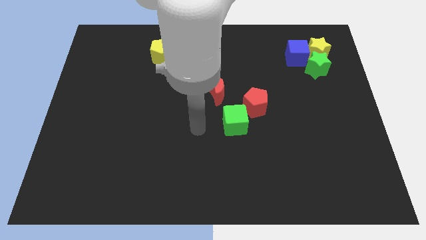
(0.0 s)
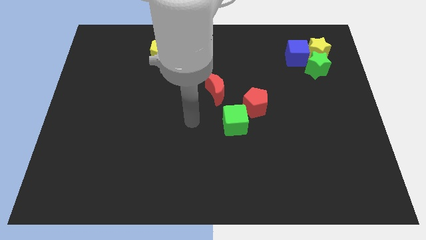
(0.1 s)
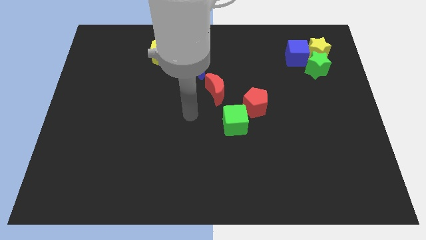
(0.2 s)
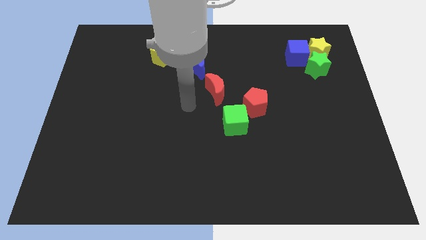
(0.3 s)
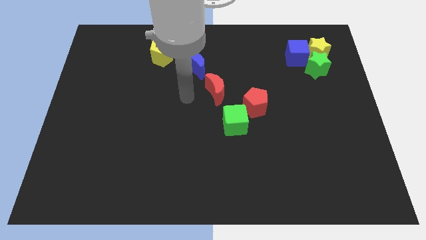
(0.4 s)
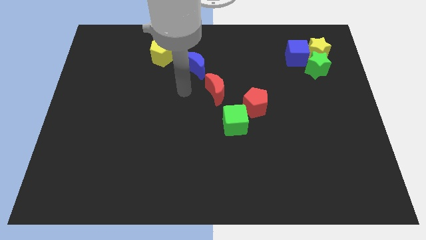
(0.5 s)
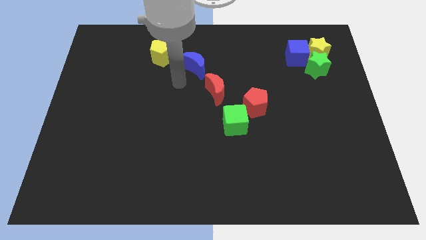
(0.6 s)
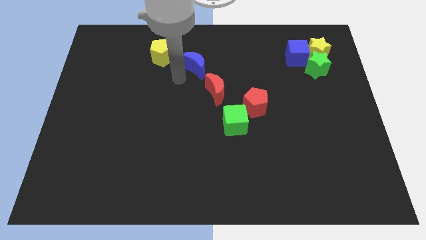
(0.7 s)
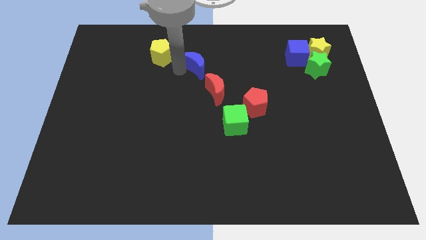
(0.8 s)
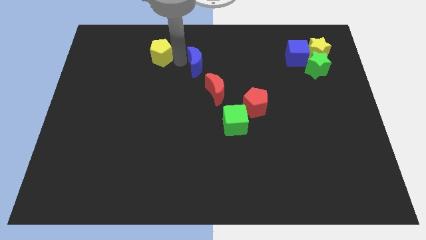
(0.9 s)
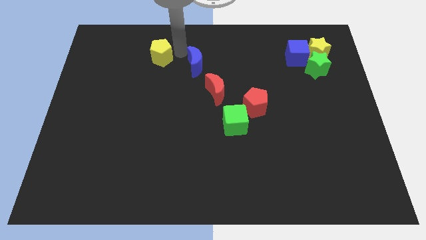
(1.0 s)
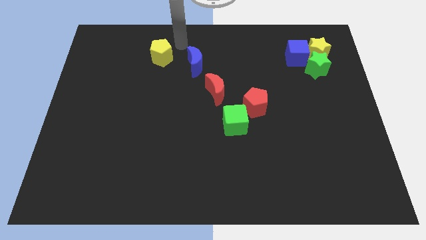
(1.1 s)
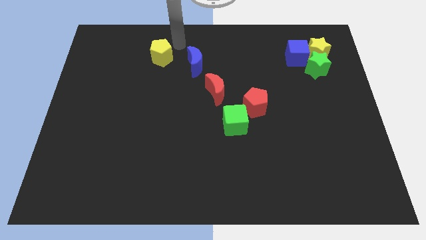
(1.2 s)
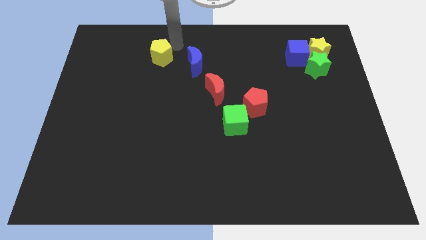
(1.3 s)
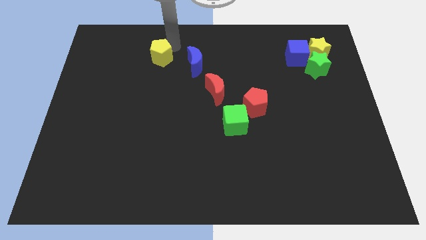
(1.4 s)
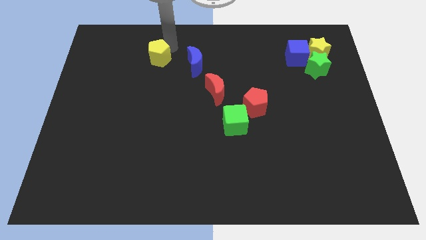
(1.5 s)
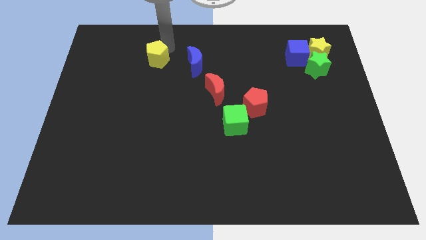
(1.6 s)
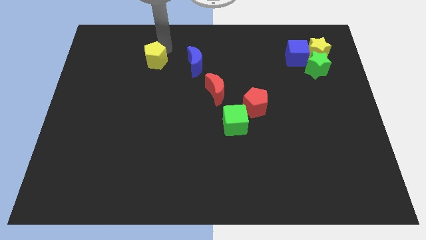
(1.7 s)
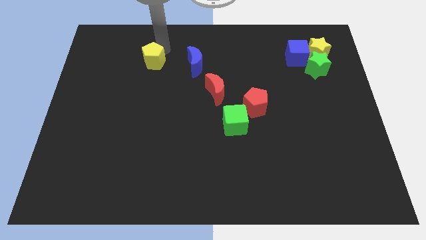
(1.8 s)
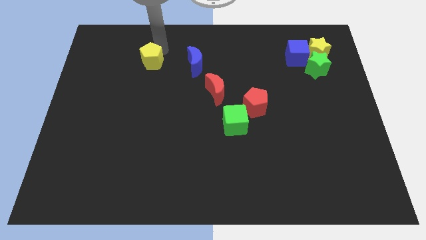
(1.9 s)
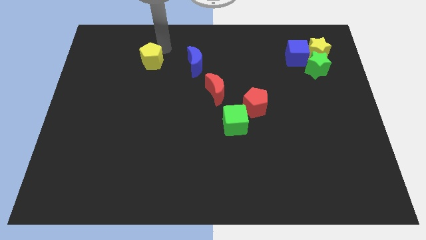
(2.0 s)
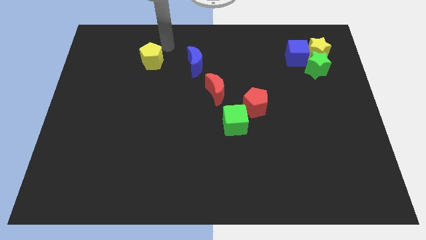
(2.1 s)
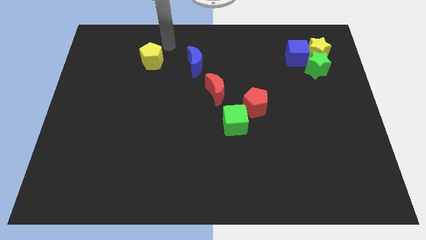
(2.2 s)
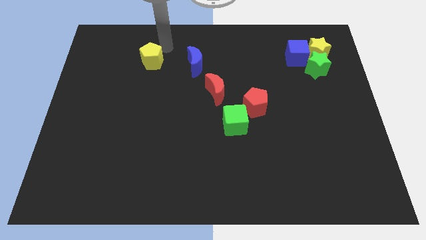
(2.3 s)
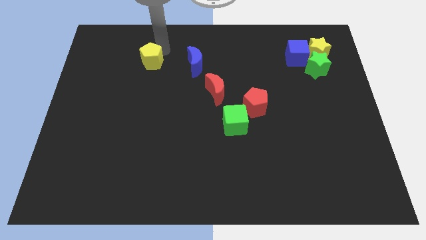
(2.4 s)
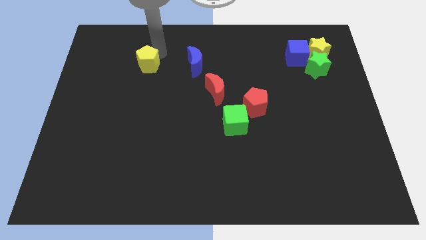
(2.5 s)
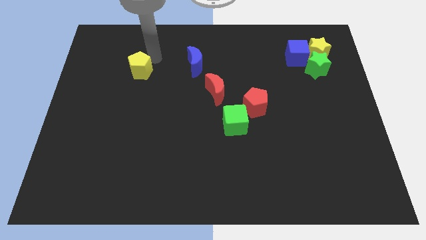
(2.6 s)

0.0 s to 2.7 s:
move the yellow pentagon a little downwards and left

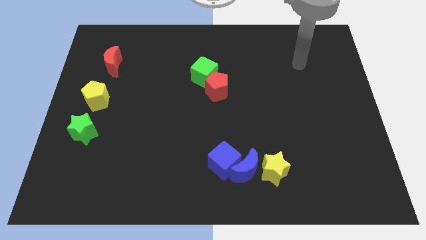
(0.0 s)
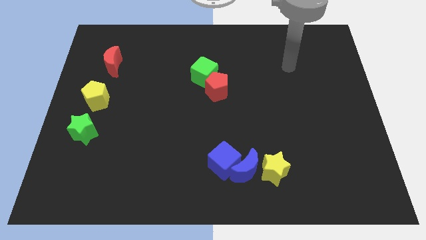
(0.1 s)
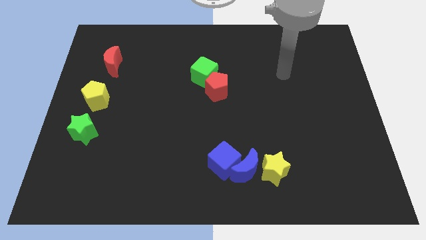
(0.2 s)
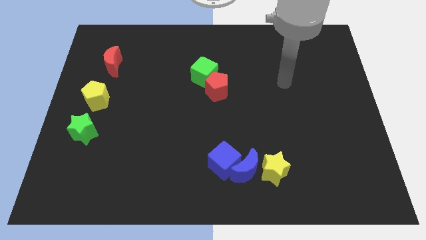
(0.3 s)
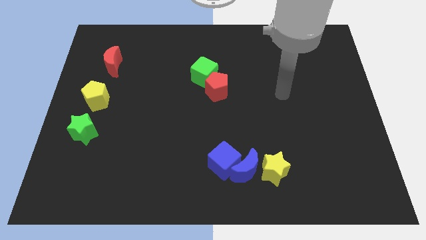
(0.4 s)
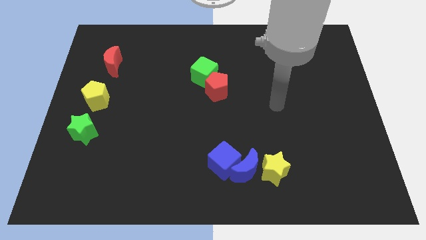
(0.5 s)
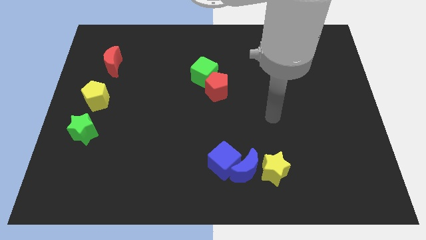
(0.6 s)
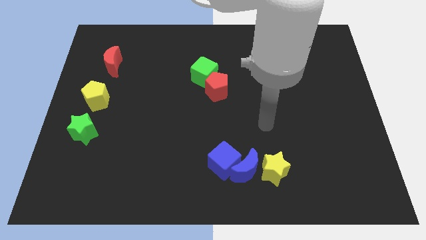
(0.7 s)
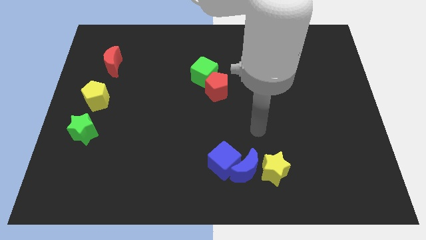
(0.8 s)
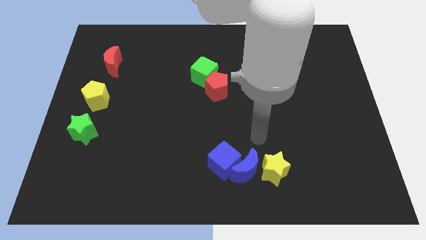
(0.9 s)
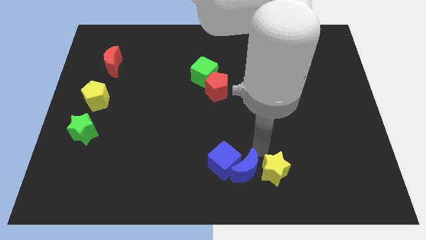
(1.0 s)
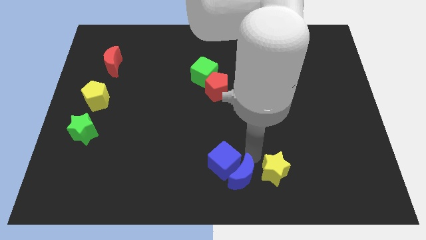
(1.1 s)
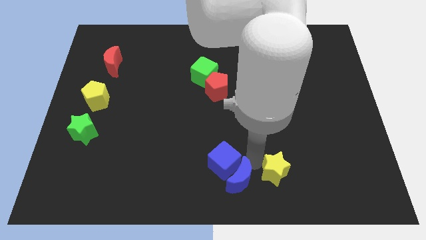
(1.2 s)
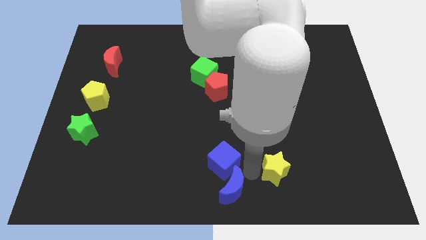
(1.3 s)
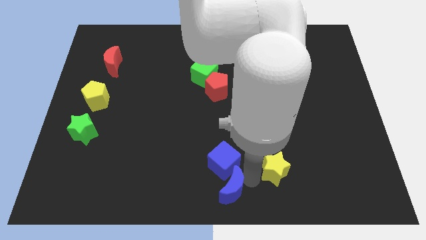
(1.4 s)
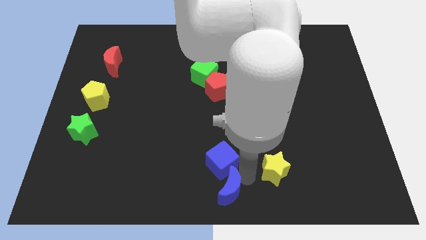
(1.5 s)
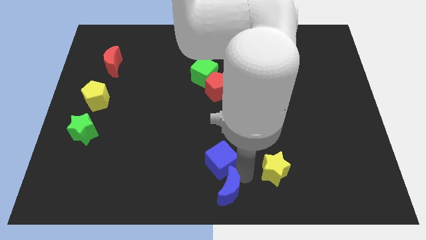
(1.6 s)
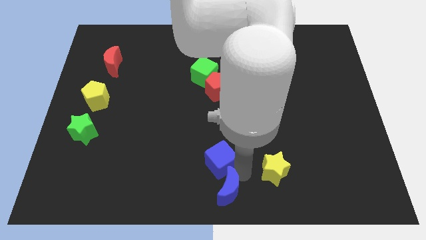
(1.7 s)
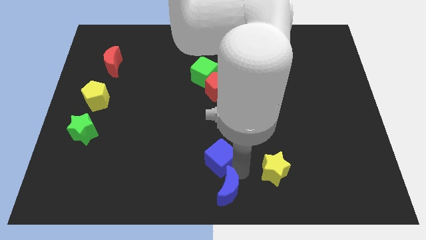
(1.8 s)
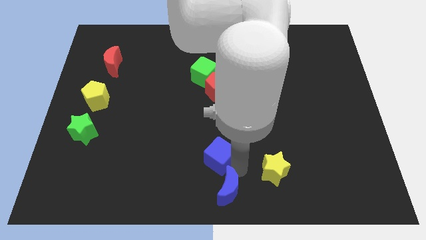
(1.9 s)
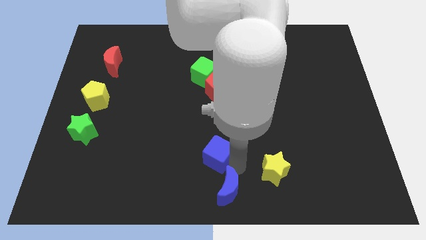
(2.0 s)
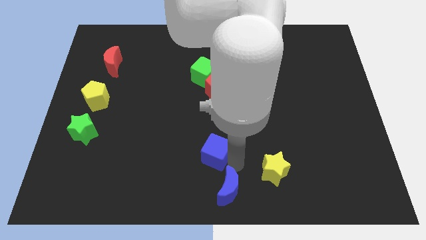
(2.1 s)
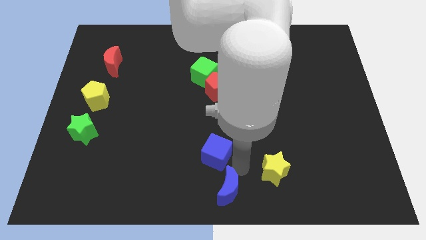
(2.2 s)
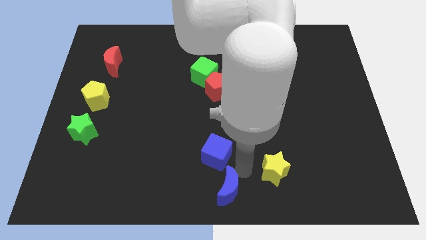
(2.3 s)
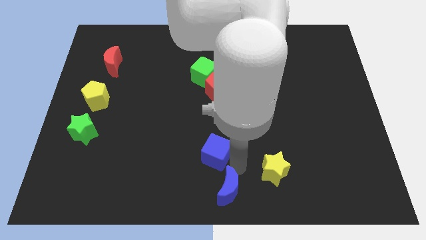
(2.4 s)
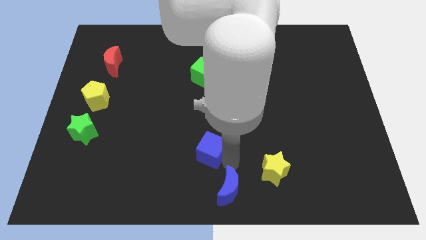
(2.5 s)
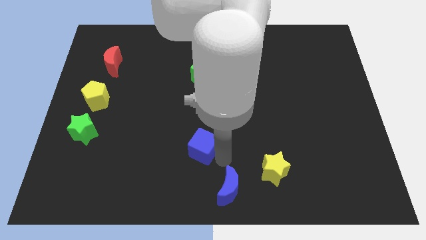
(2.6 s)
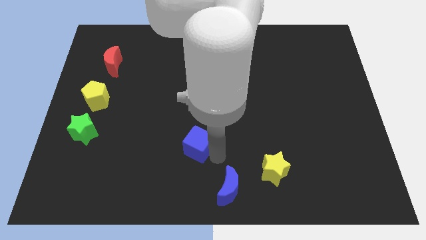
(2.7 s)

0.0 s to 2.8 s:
slightly move the blue cube up and then to the left

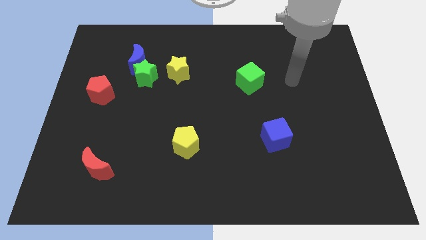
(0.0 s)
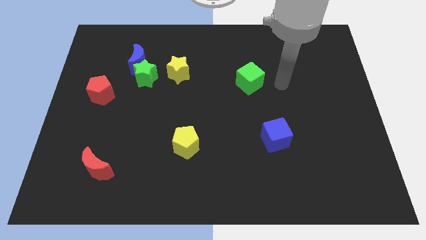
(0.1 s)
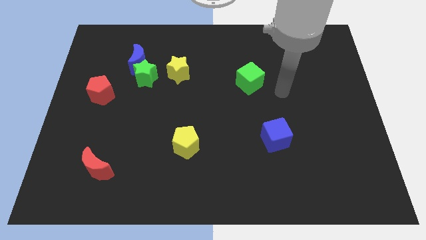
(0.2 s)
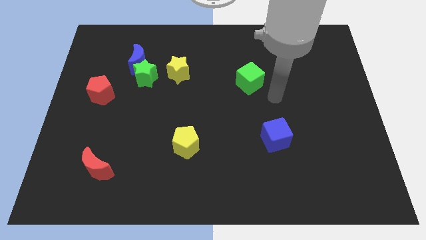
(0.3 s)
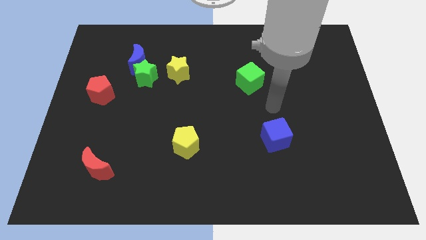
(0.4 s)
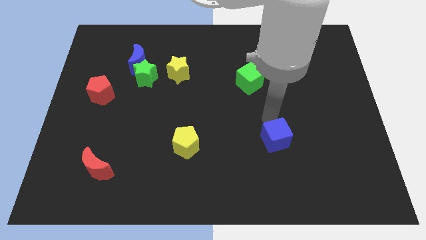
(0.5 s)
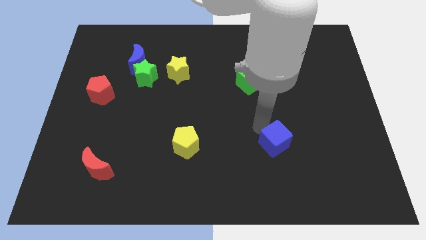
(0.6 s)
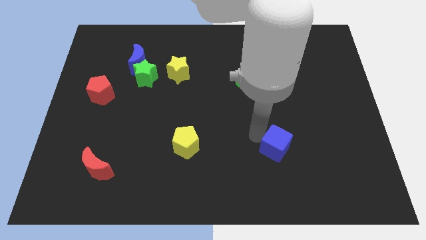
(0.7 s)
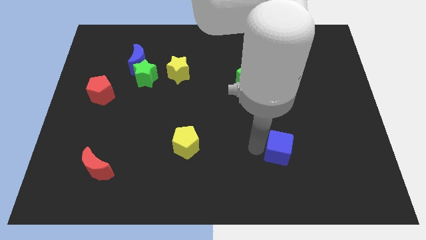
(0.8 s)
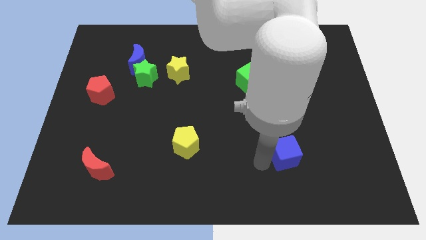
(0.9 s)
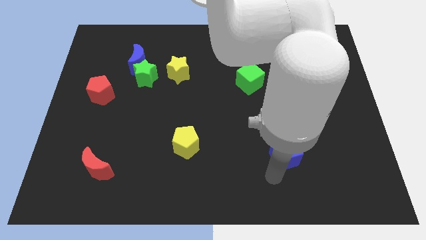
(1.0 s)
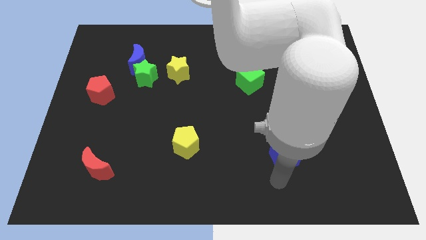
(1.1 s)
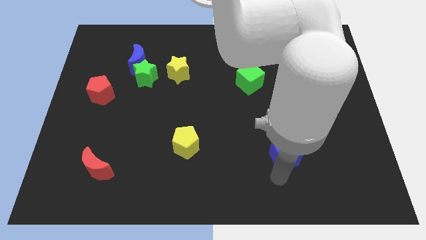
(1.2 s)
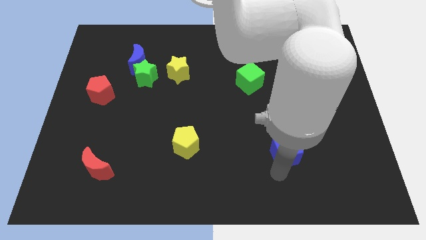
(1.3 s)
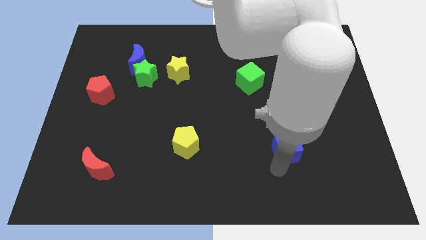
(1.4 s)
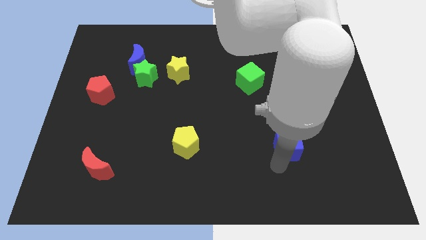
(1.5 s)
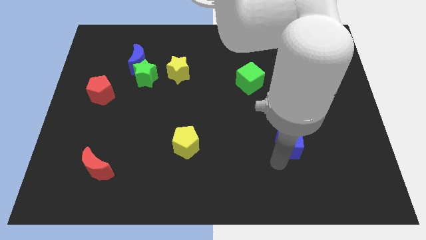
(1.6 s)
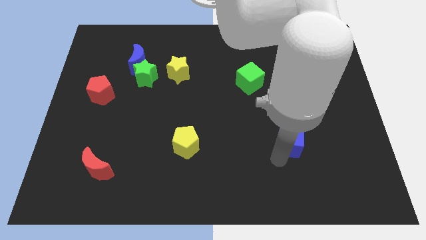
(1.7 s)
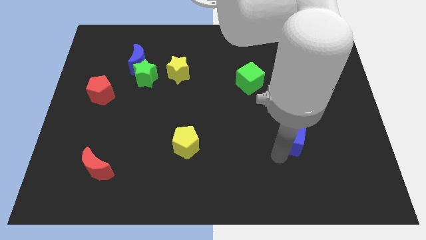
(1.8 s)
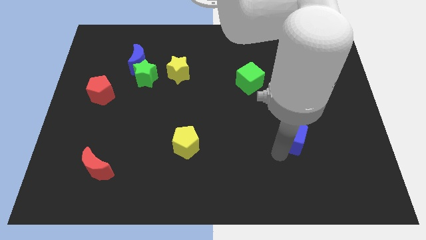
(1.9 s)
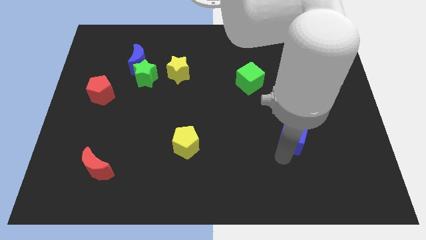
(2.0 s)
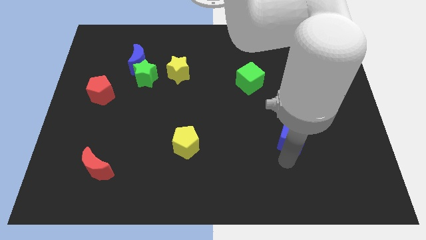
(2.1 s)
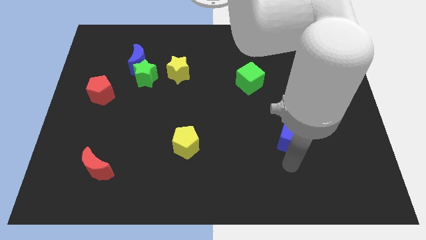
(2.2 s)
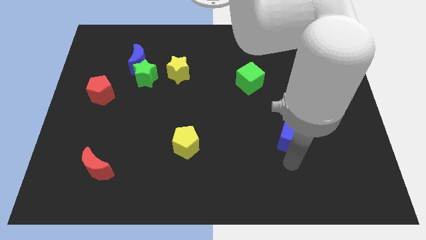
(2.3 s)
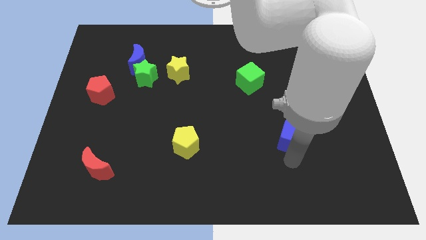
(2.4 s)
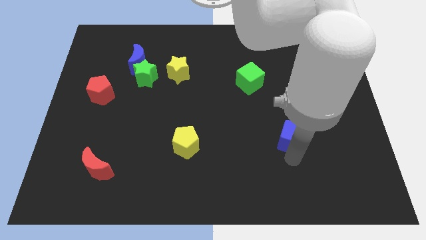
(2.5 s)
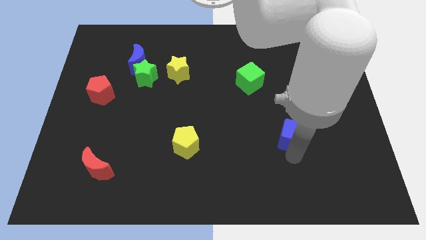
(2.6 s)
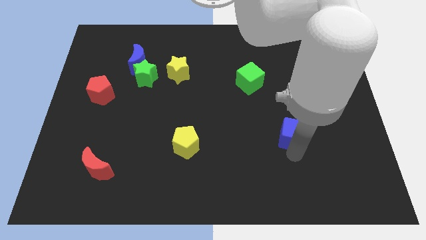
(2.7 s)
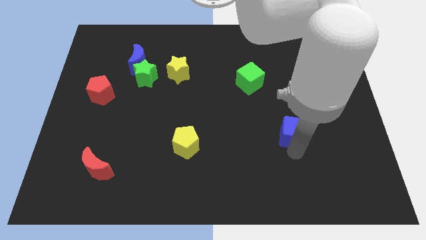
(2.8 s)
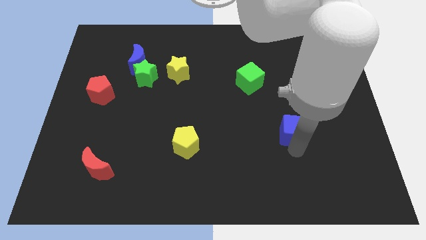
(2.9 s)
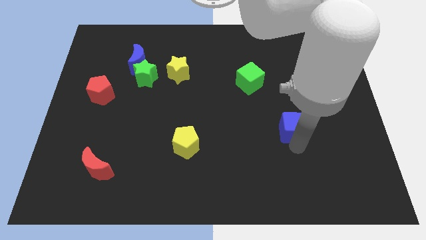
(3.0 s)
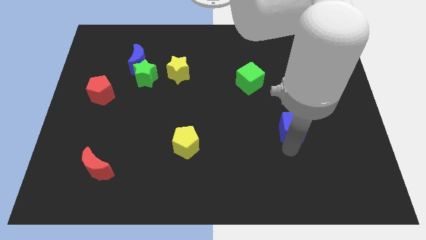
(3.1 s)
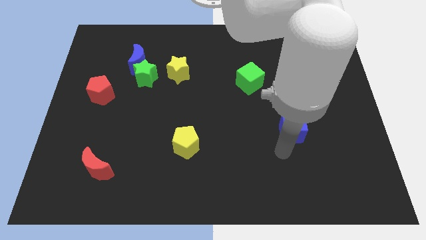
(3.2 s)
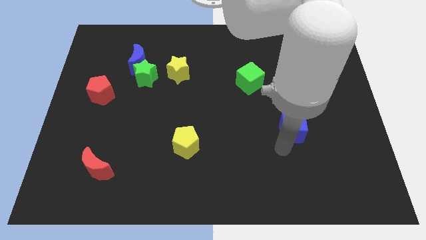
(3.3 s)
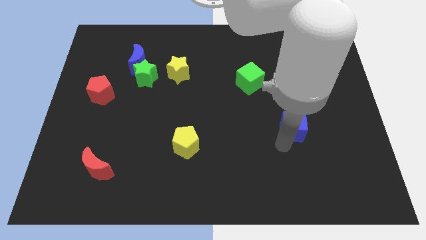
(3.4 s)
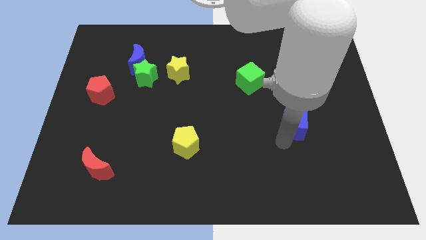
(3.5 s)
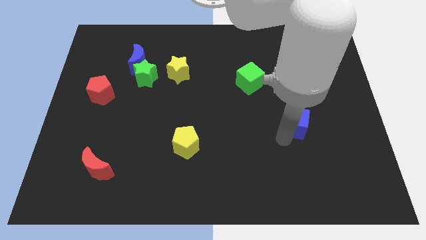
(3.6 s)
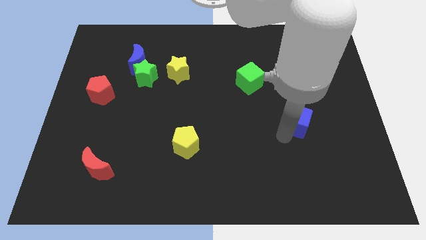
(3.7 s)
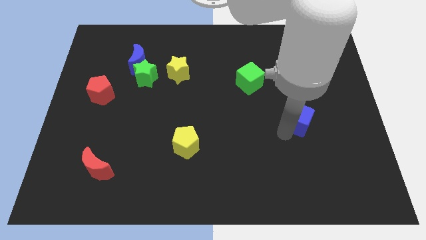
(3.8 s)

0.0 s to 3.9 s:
slightly push the blue cube upwards and right
